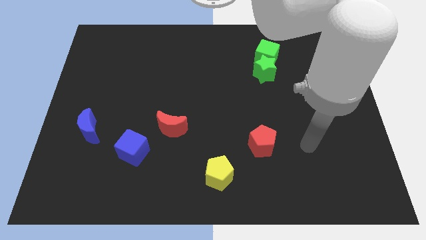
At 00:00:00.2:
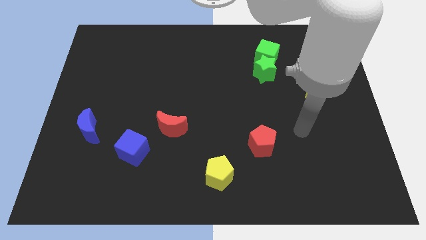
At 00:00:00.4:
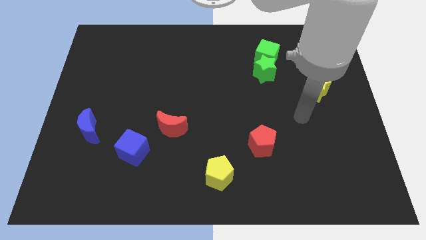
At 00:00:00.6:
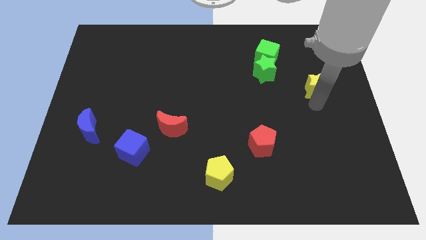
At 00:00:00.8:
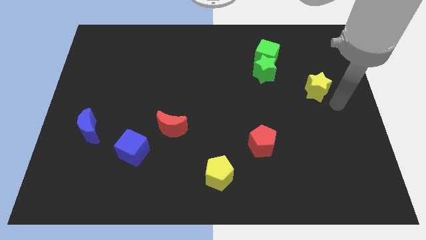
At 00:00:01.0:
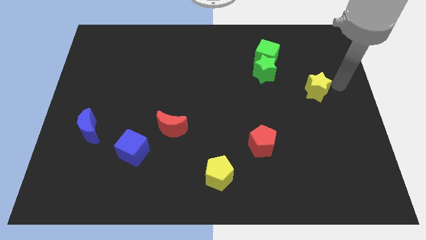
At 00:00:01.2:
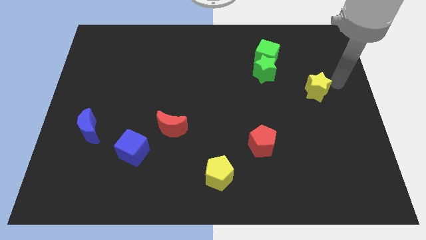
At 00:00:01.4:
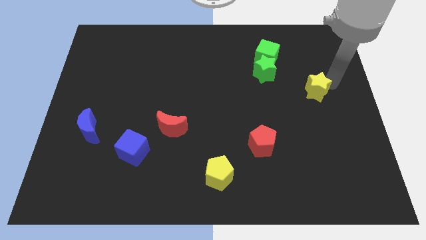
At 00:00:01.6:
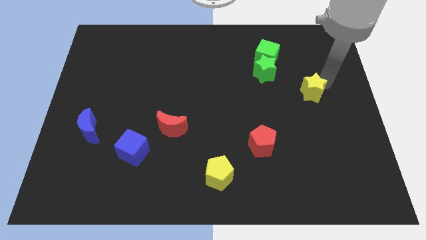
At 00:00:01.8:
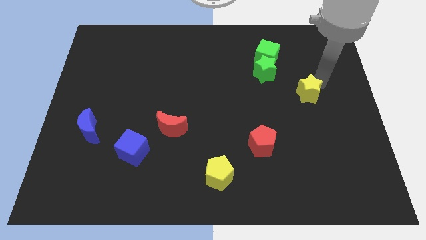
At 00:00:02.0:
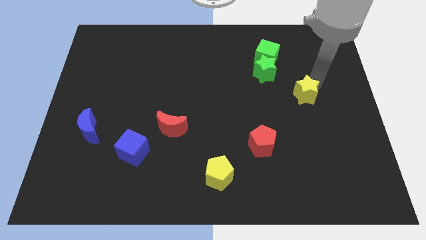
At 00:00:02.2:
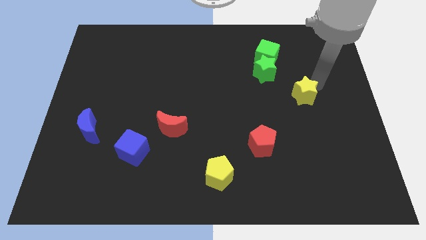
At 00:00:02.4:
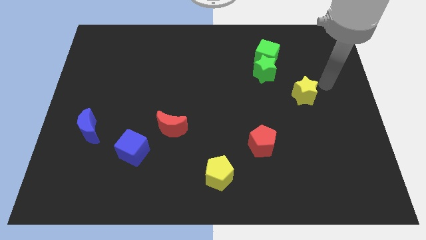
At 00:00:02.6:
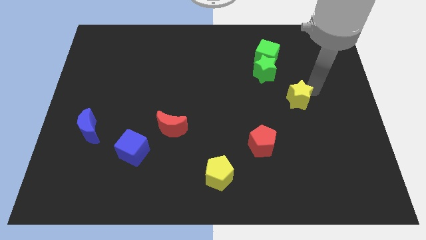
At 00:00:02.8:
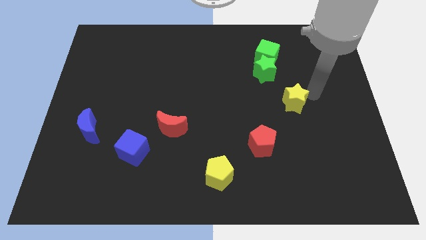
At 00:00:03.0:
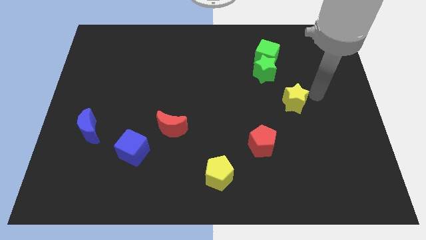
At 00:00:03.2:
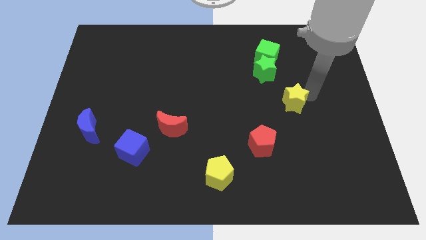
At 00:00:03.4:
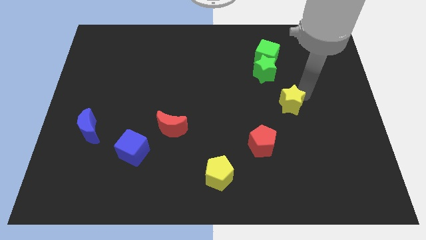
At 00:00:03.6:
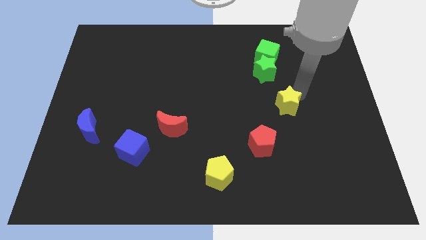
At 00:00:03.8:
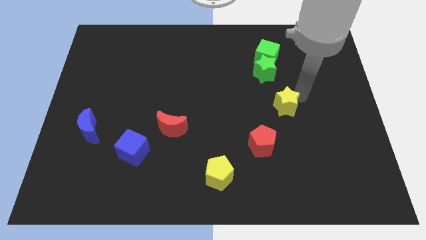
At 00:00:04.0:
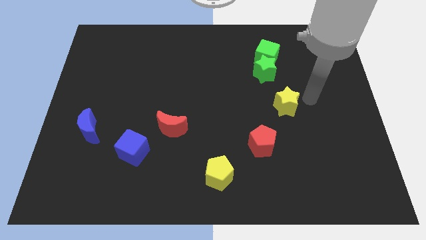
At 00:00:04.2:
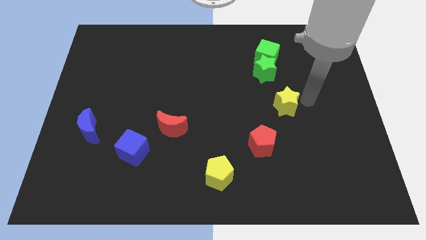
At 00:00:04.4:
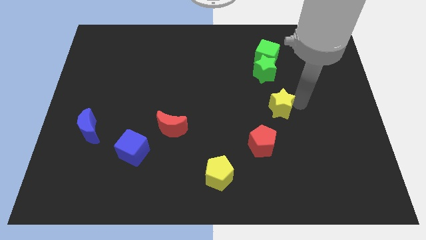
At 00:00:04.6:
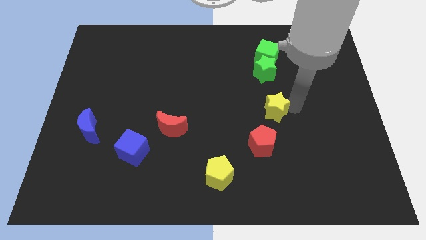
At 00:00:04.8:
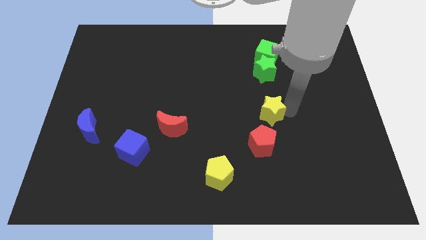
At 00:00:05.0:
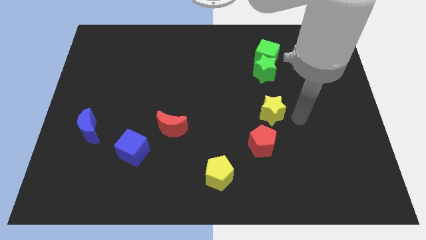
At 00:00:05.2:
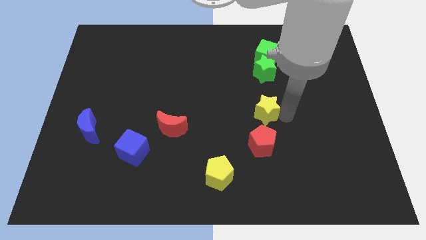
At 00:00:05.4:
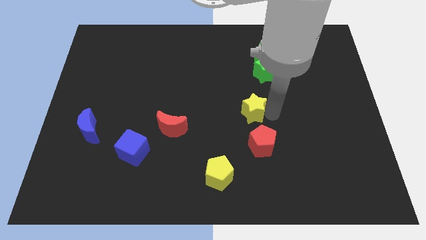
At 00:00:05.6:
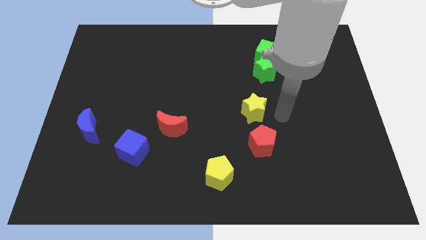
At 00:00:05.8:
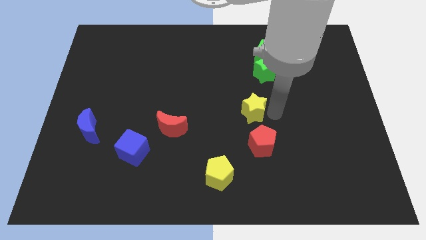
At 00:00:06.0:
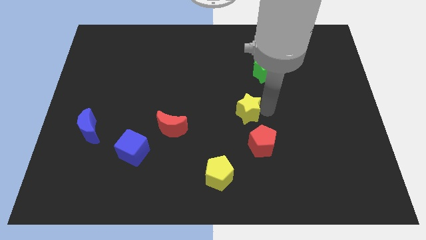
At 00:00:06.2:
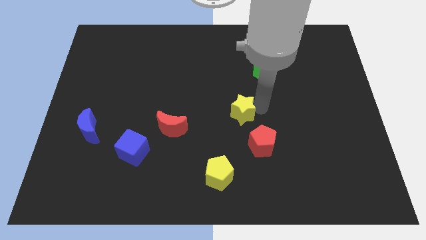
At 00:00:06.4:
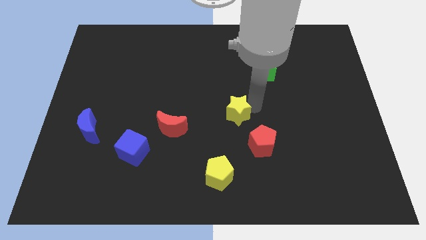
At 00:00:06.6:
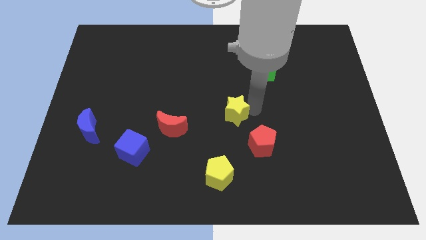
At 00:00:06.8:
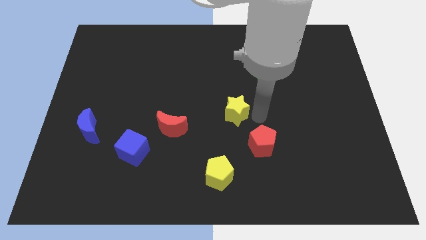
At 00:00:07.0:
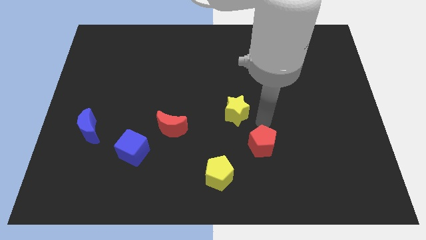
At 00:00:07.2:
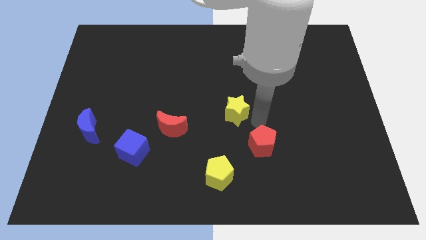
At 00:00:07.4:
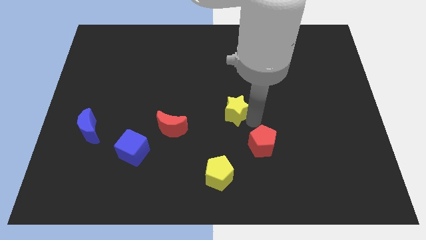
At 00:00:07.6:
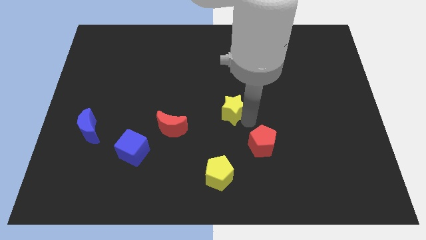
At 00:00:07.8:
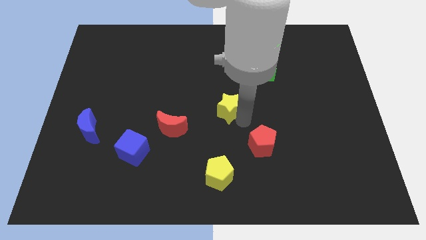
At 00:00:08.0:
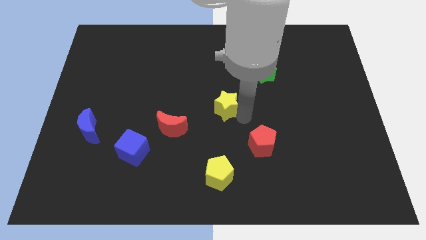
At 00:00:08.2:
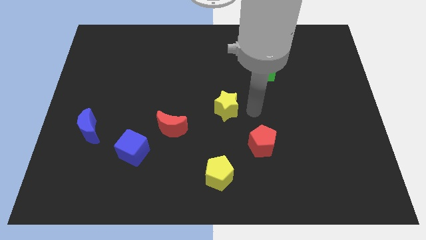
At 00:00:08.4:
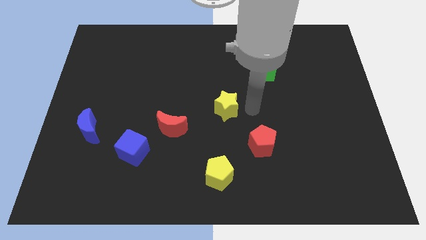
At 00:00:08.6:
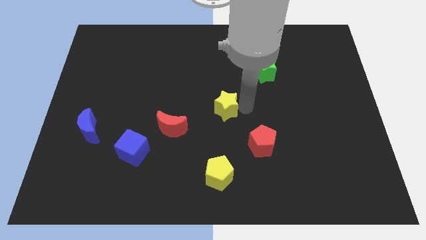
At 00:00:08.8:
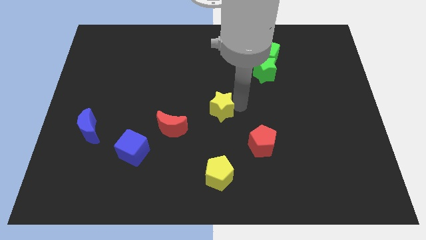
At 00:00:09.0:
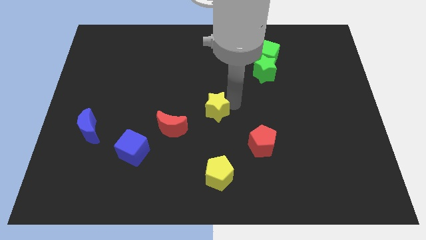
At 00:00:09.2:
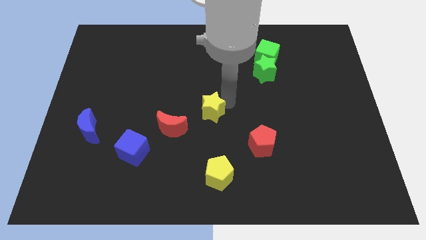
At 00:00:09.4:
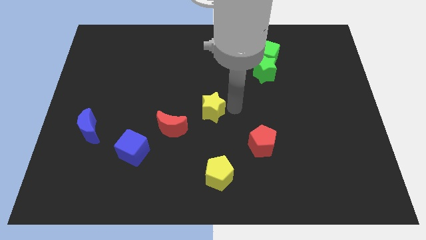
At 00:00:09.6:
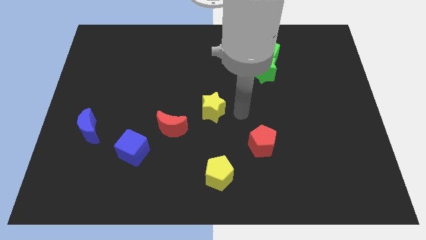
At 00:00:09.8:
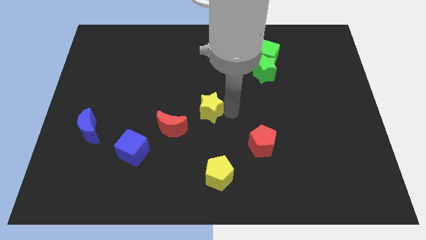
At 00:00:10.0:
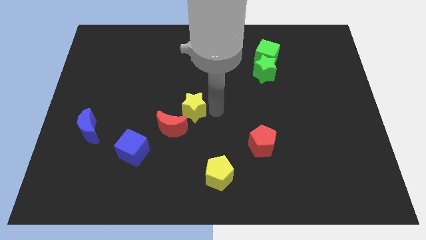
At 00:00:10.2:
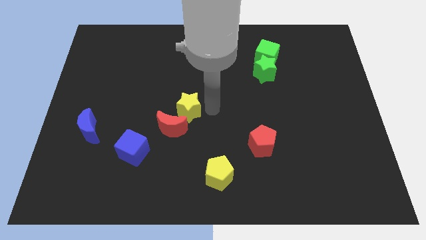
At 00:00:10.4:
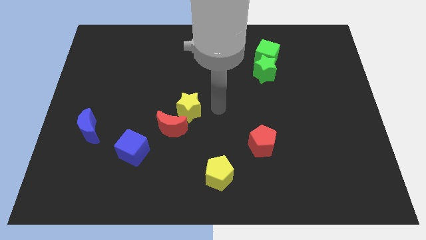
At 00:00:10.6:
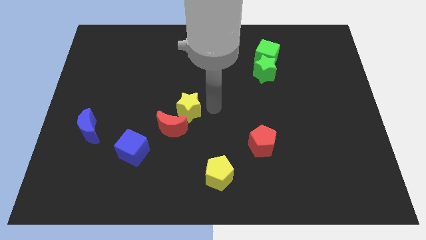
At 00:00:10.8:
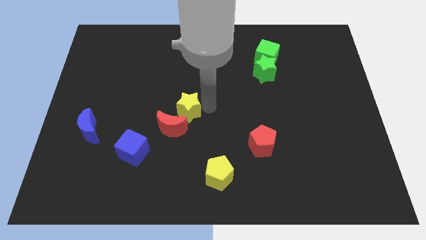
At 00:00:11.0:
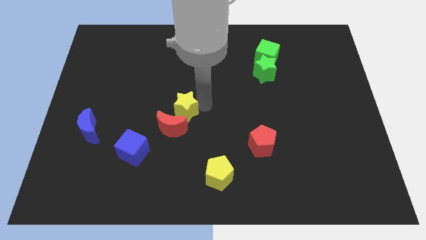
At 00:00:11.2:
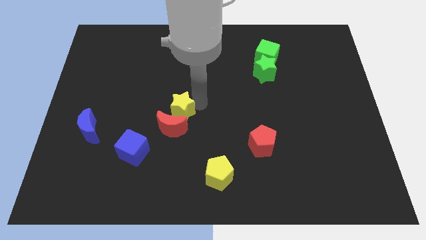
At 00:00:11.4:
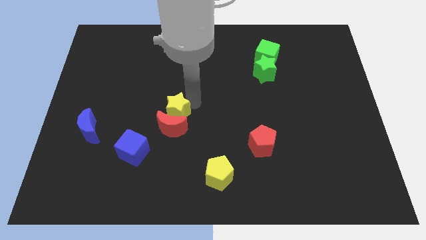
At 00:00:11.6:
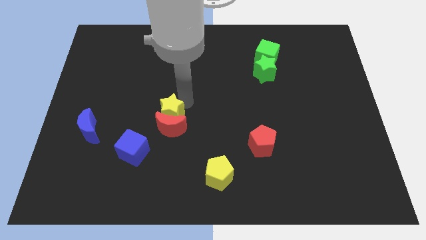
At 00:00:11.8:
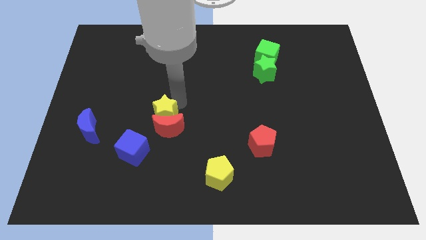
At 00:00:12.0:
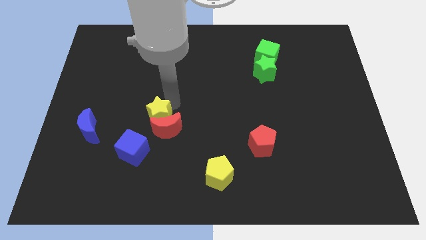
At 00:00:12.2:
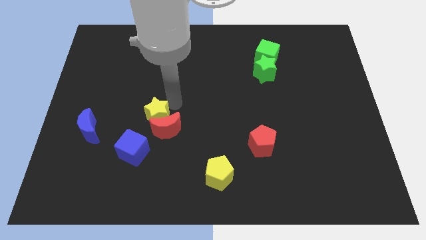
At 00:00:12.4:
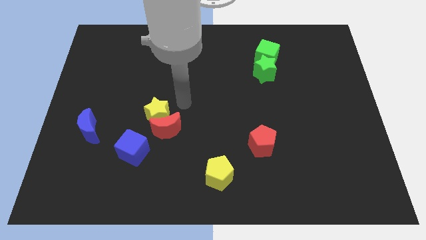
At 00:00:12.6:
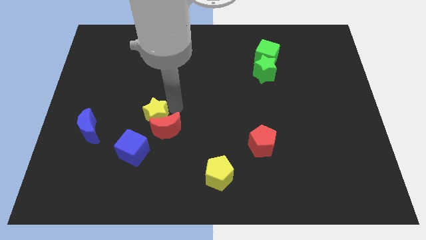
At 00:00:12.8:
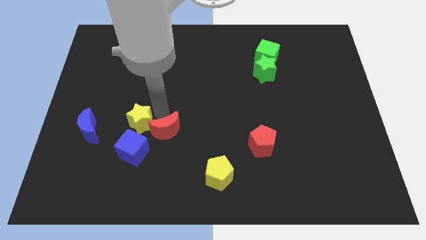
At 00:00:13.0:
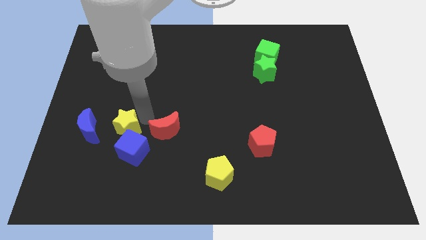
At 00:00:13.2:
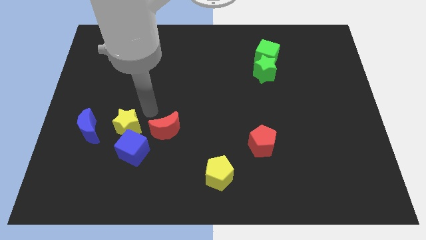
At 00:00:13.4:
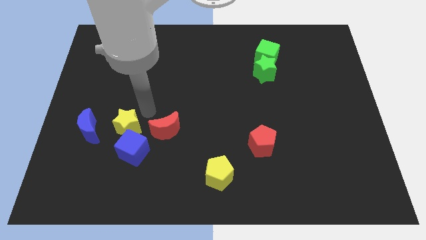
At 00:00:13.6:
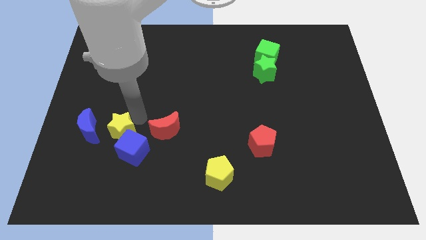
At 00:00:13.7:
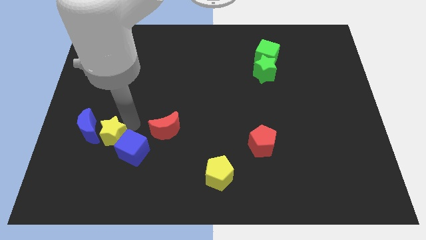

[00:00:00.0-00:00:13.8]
push the yellow star to the left side of the blue cube

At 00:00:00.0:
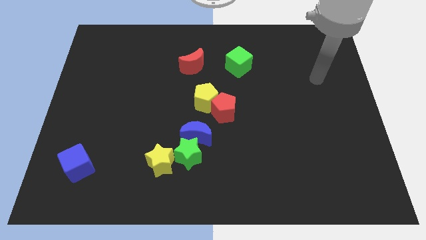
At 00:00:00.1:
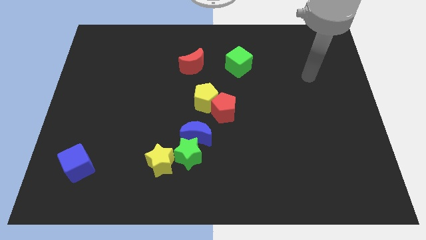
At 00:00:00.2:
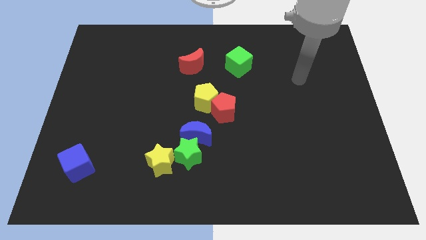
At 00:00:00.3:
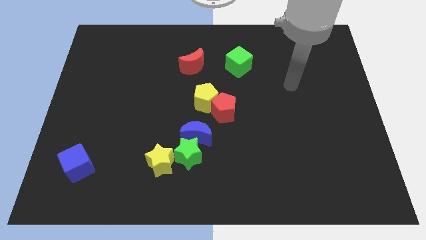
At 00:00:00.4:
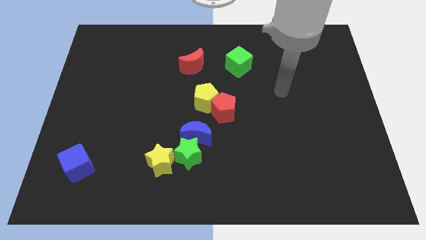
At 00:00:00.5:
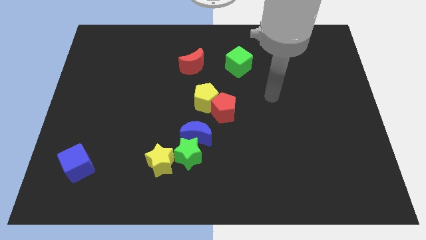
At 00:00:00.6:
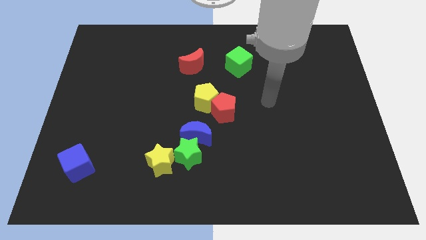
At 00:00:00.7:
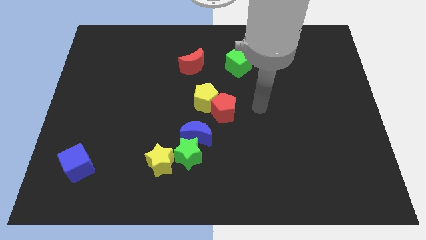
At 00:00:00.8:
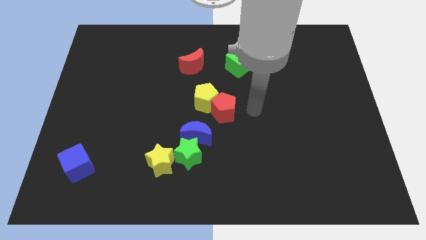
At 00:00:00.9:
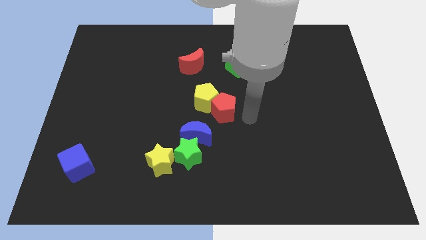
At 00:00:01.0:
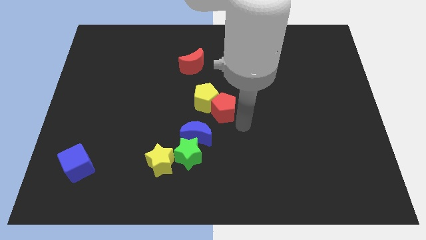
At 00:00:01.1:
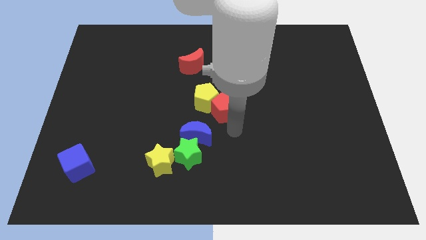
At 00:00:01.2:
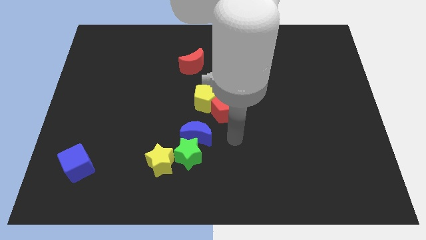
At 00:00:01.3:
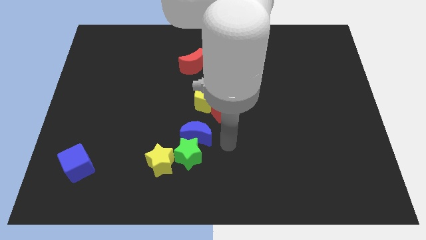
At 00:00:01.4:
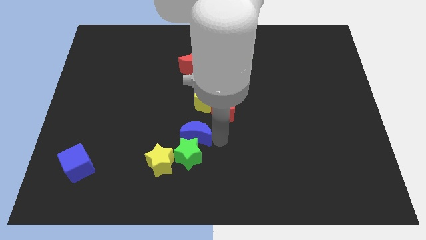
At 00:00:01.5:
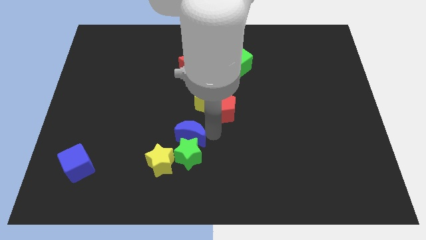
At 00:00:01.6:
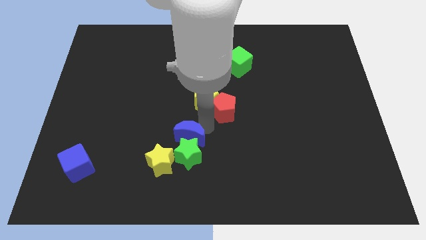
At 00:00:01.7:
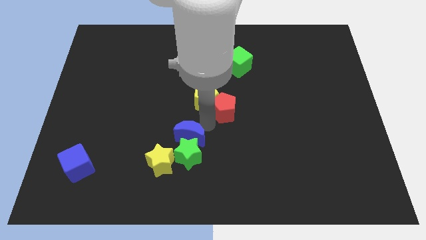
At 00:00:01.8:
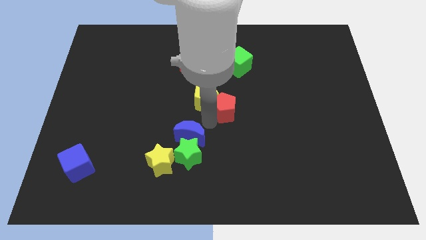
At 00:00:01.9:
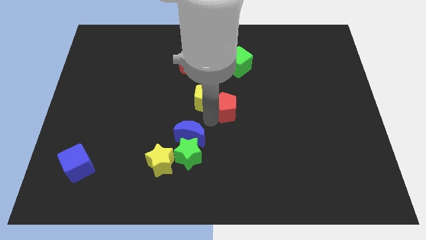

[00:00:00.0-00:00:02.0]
move the red pentagon below the green cube
